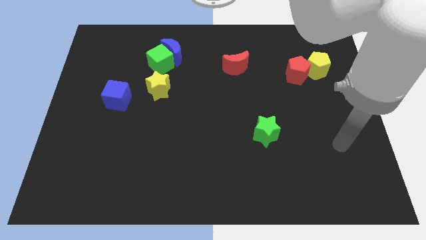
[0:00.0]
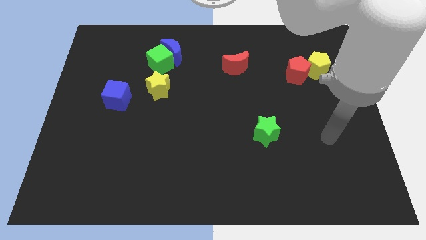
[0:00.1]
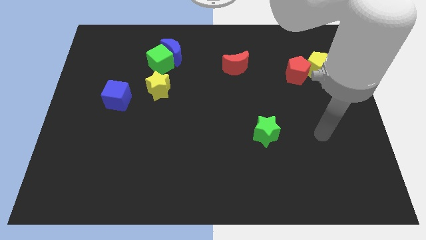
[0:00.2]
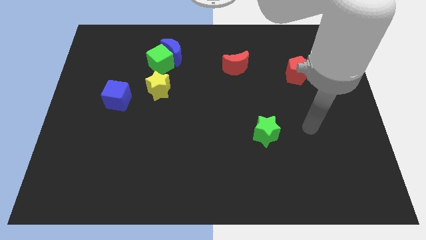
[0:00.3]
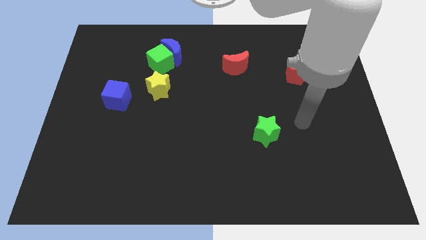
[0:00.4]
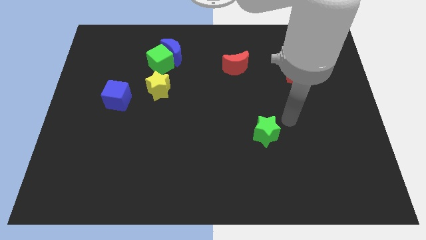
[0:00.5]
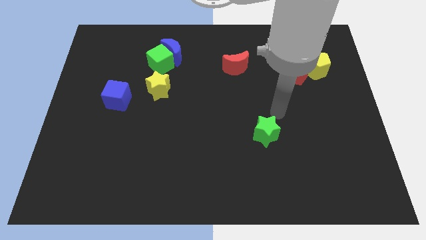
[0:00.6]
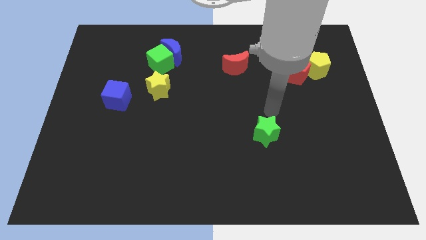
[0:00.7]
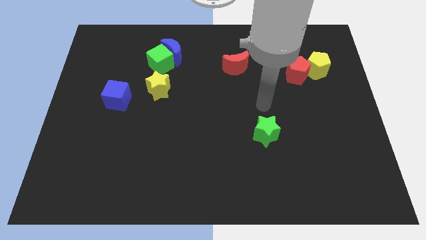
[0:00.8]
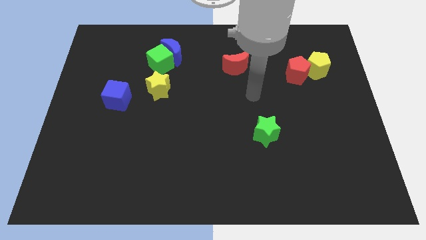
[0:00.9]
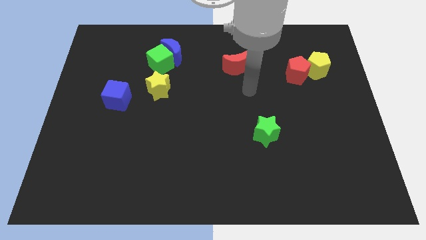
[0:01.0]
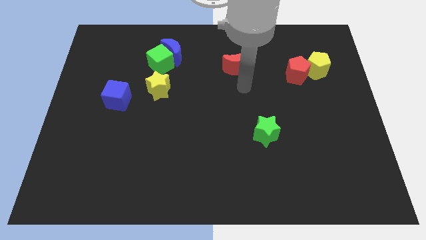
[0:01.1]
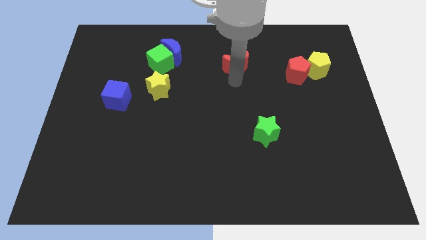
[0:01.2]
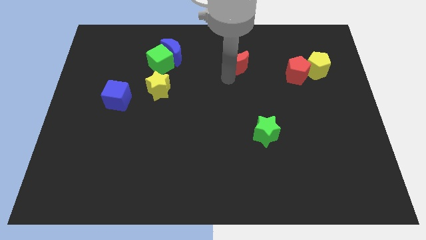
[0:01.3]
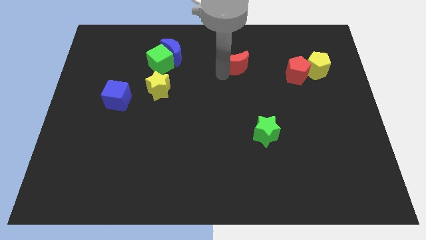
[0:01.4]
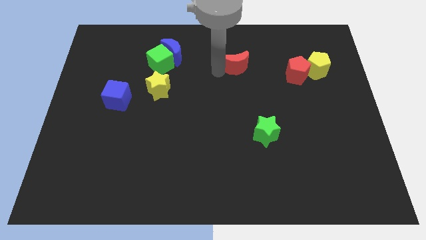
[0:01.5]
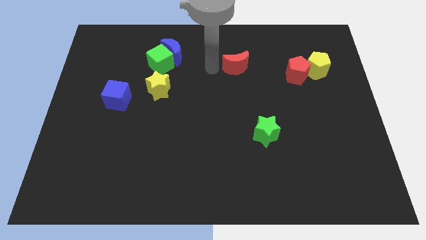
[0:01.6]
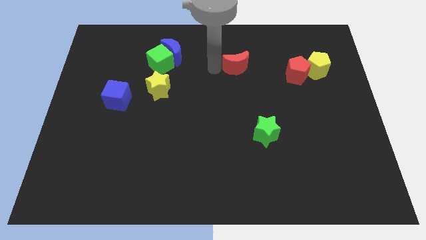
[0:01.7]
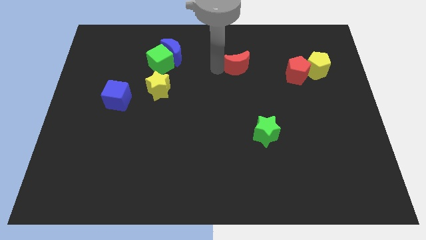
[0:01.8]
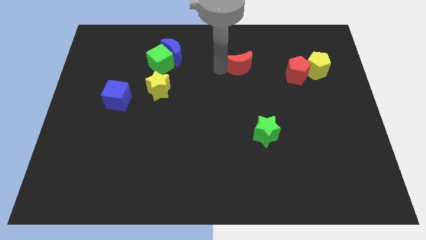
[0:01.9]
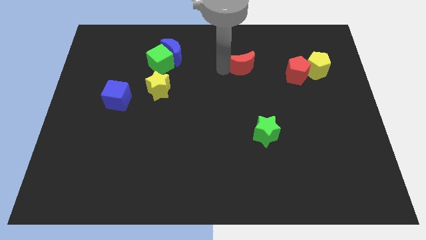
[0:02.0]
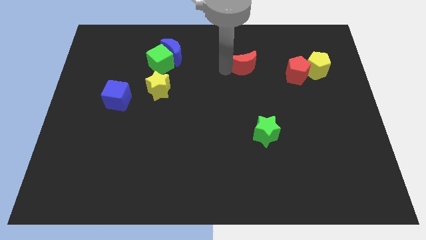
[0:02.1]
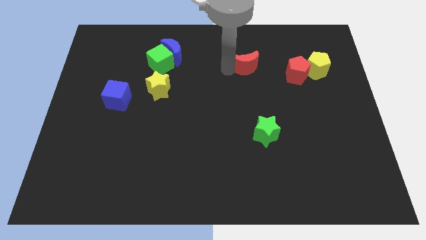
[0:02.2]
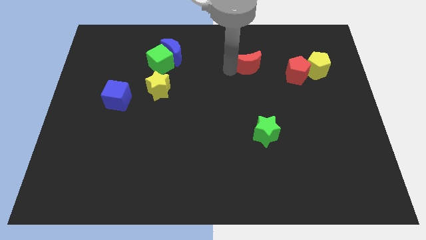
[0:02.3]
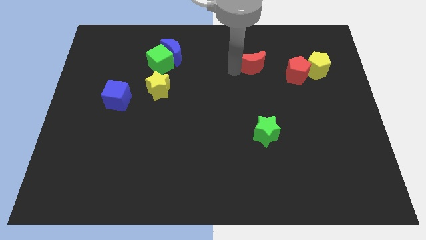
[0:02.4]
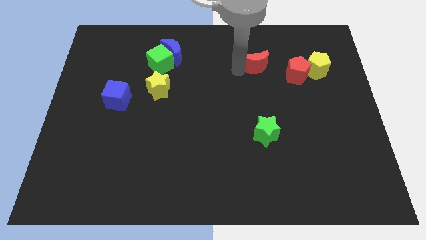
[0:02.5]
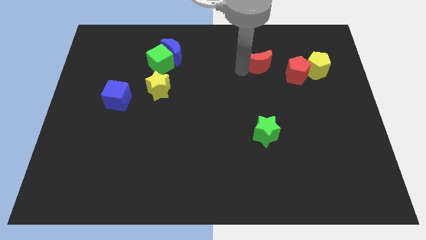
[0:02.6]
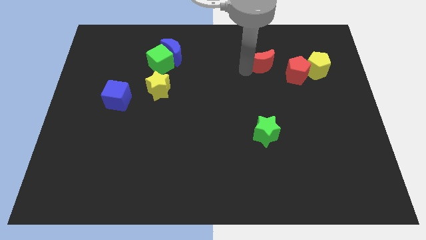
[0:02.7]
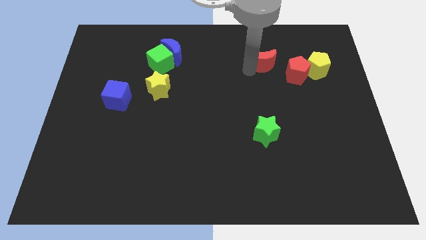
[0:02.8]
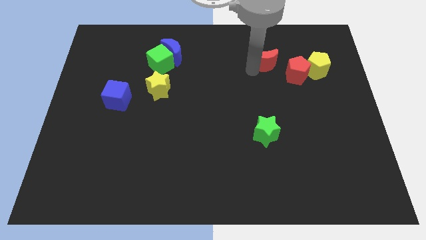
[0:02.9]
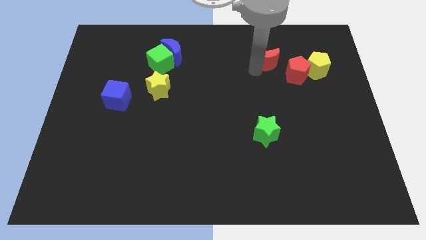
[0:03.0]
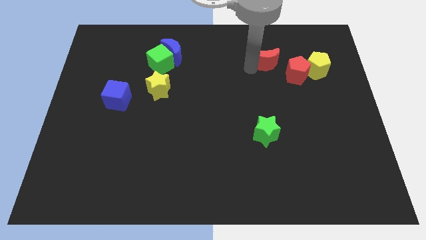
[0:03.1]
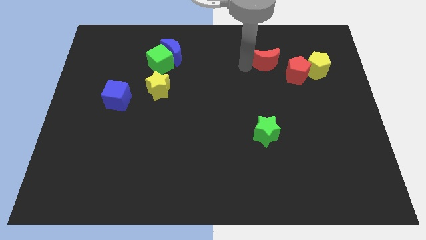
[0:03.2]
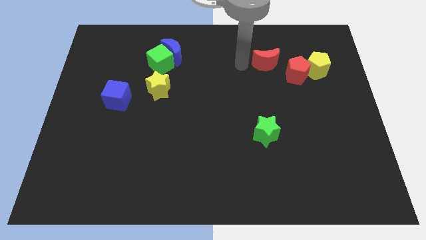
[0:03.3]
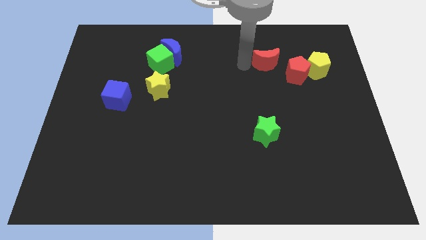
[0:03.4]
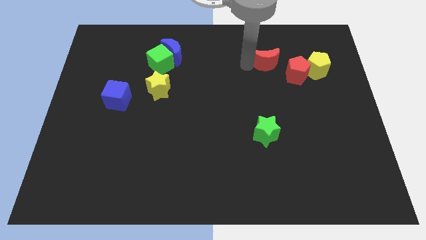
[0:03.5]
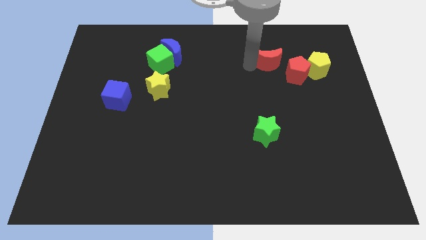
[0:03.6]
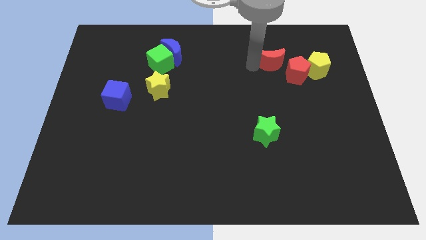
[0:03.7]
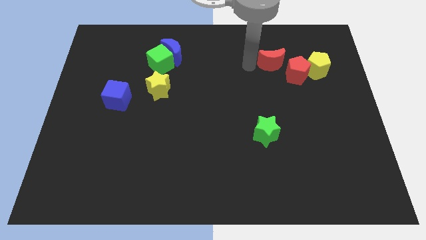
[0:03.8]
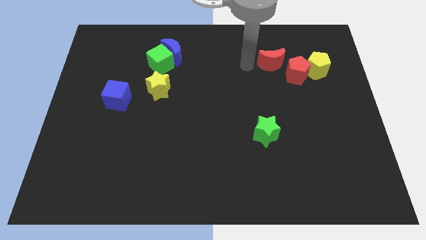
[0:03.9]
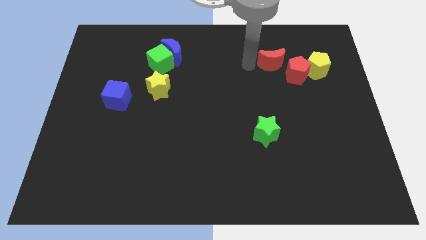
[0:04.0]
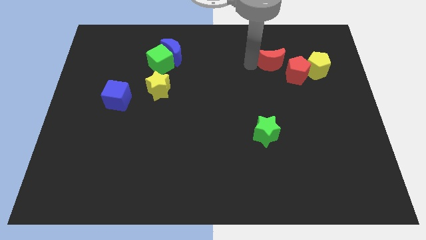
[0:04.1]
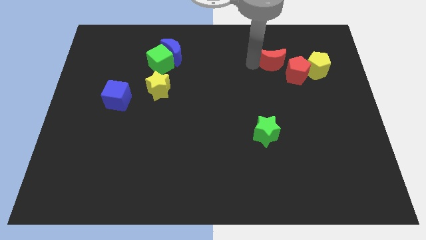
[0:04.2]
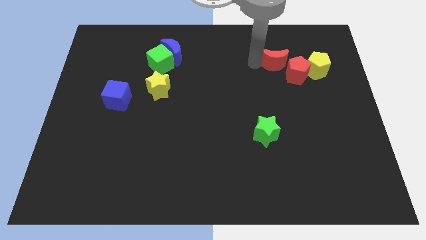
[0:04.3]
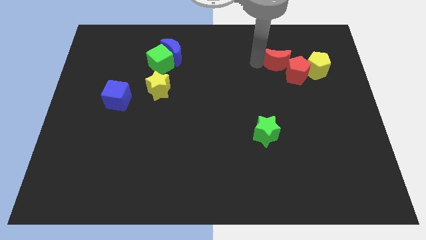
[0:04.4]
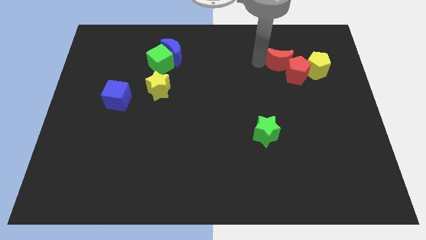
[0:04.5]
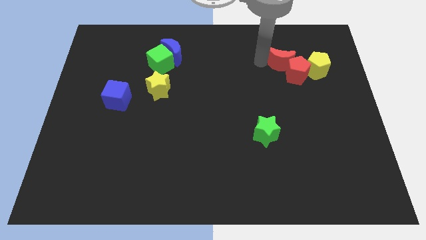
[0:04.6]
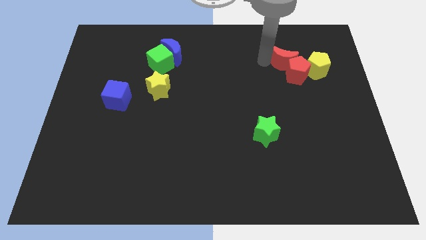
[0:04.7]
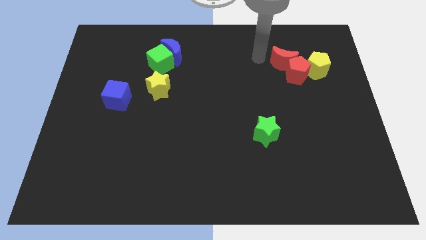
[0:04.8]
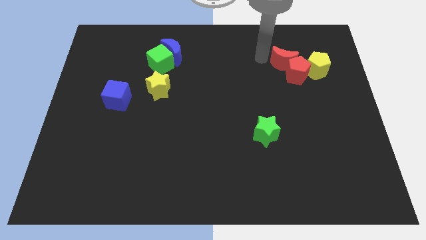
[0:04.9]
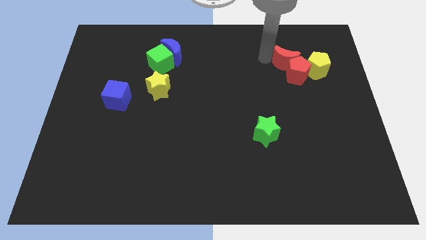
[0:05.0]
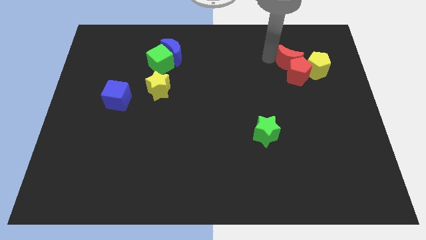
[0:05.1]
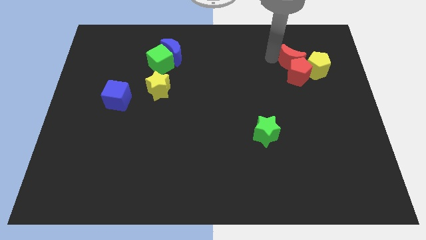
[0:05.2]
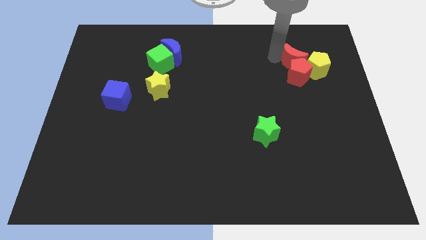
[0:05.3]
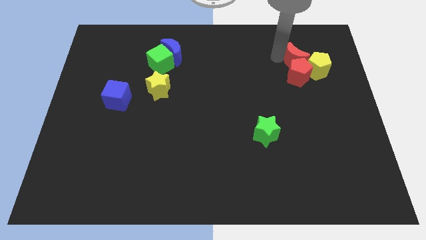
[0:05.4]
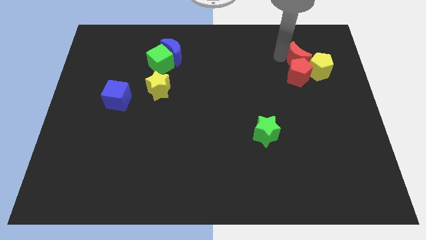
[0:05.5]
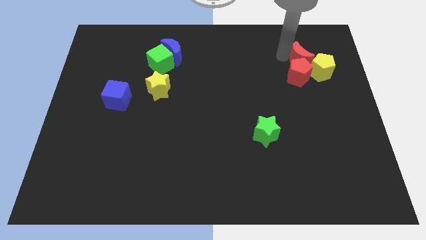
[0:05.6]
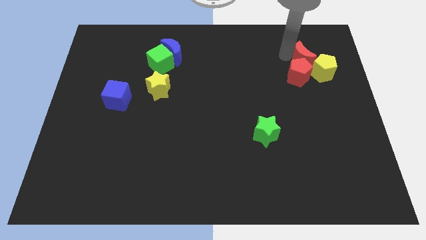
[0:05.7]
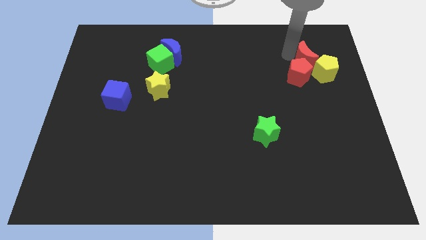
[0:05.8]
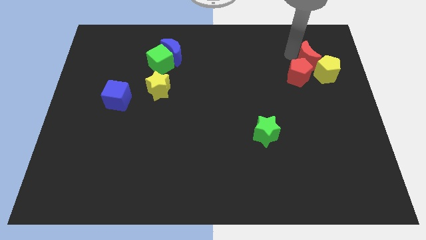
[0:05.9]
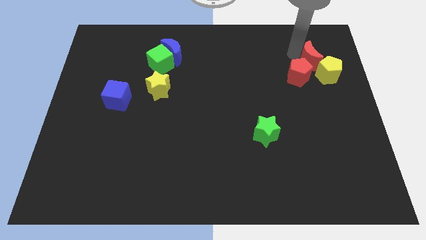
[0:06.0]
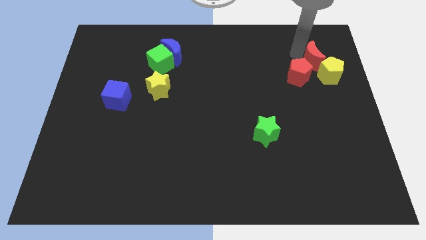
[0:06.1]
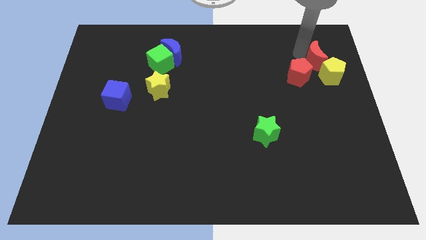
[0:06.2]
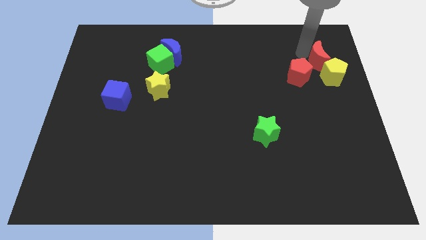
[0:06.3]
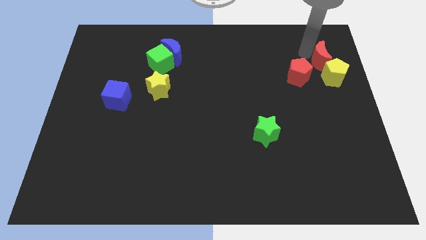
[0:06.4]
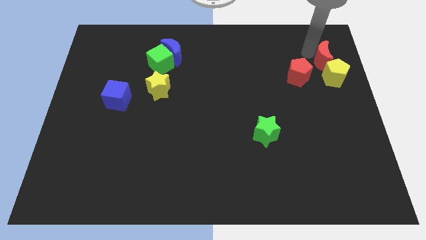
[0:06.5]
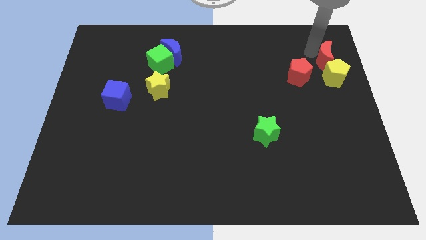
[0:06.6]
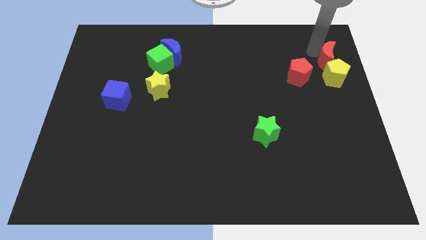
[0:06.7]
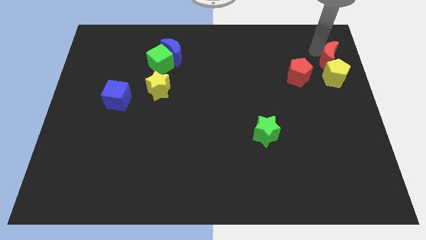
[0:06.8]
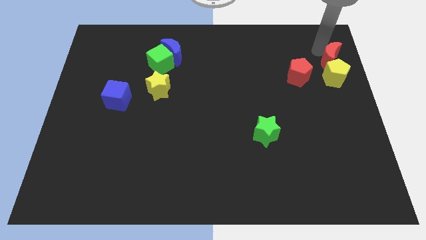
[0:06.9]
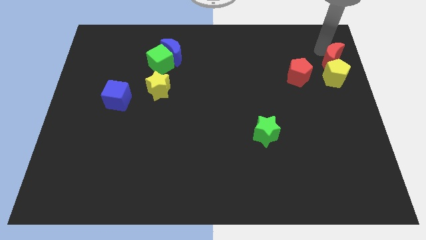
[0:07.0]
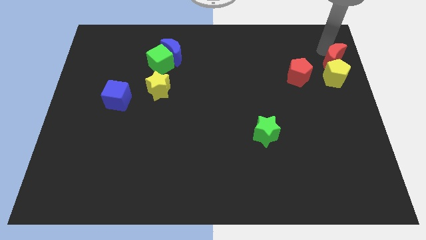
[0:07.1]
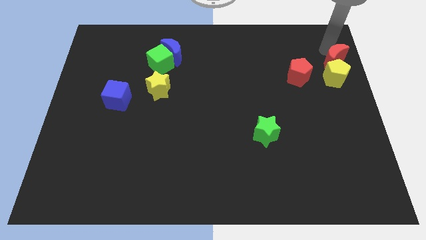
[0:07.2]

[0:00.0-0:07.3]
slide the red moon next to the yellow pentagon

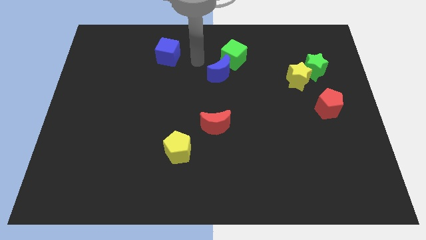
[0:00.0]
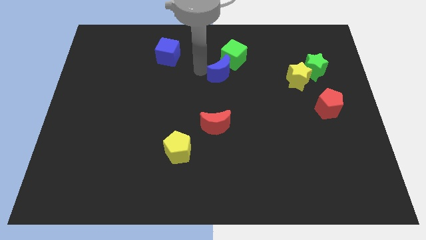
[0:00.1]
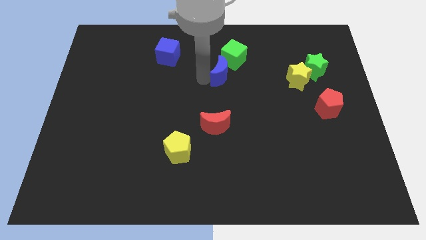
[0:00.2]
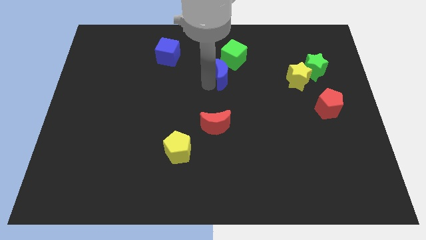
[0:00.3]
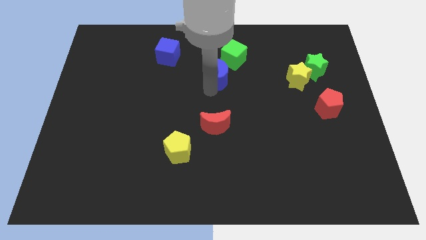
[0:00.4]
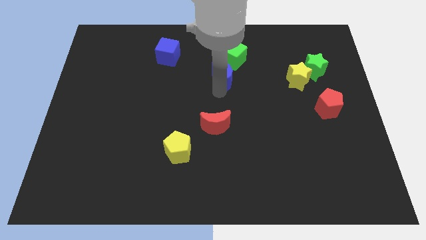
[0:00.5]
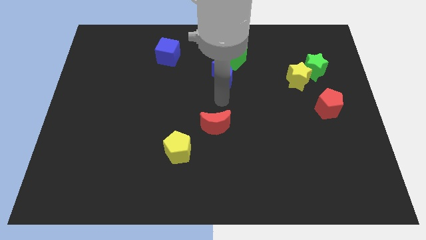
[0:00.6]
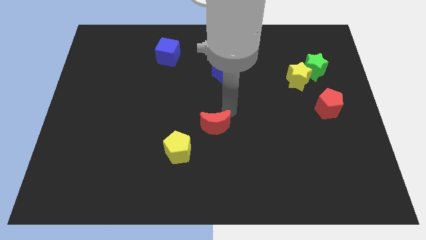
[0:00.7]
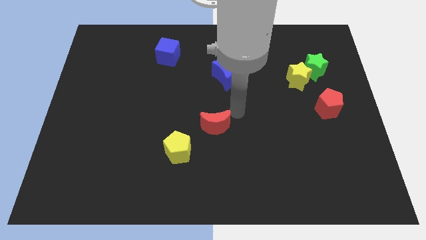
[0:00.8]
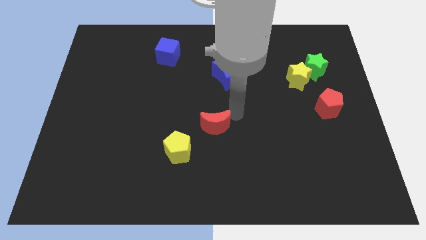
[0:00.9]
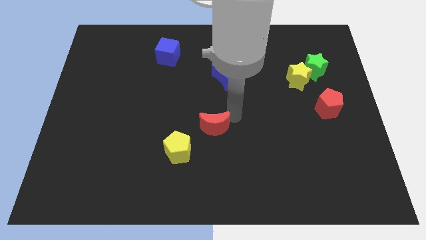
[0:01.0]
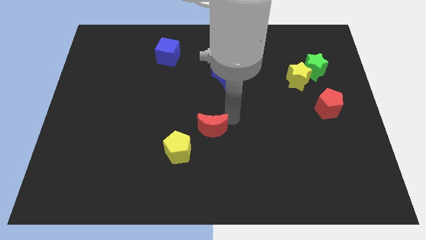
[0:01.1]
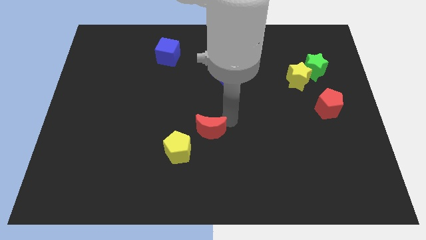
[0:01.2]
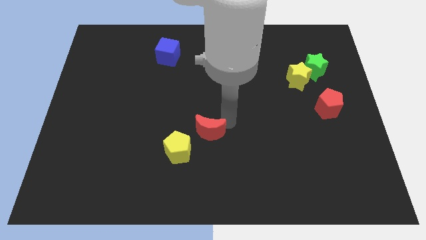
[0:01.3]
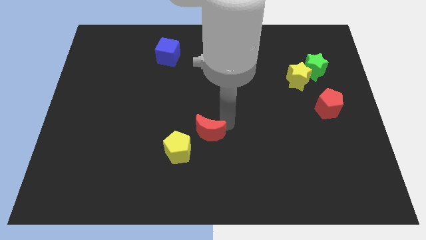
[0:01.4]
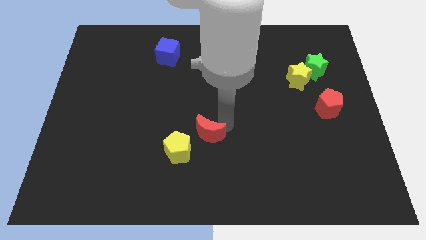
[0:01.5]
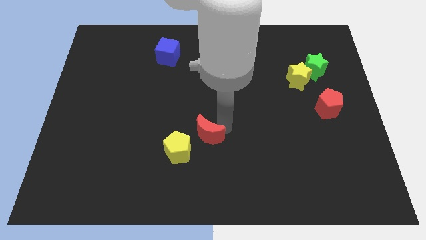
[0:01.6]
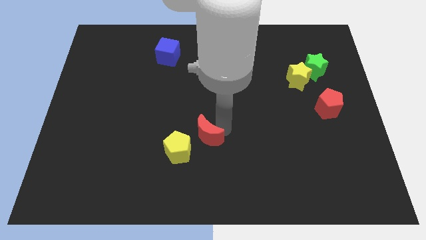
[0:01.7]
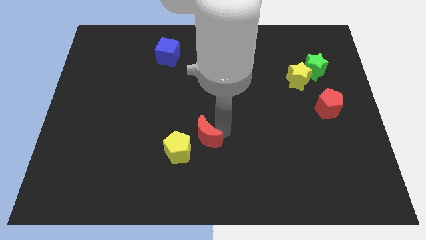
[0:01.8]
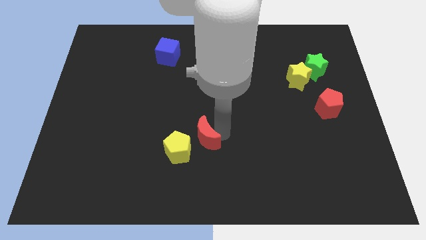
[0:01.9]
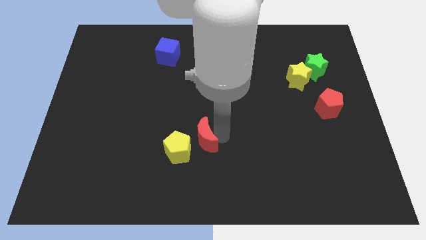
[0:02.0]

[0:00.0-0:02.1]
push the red moon close to the yellow pentagon
